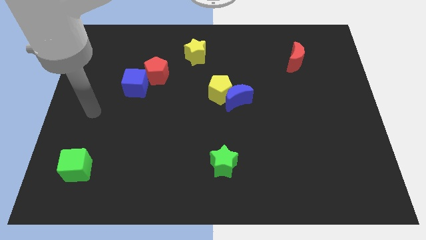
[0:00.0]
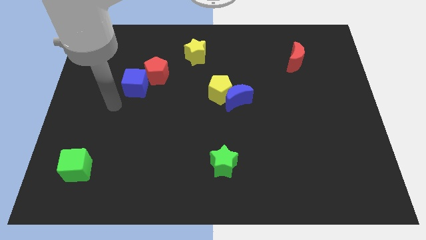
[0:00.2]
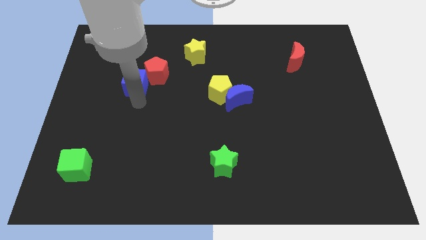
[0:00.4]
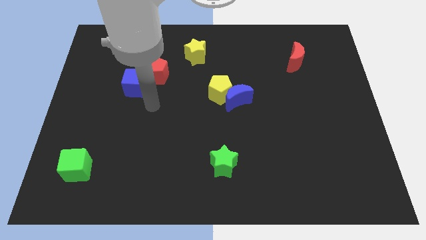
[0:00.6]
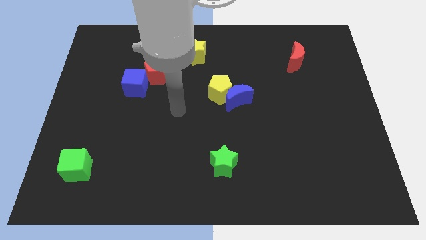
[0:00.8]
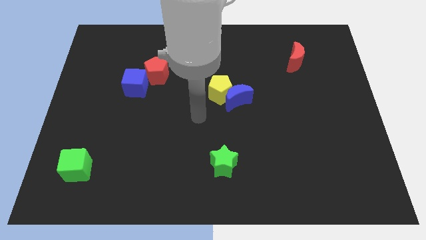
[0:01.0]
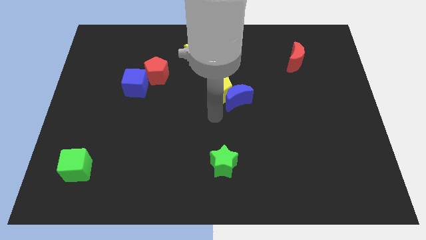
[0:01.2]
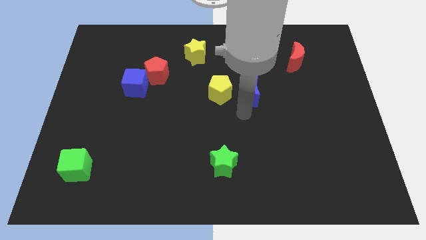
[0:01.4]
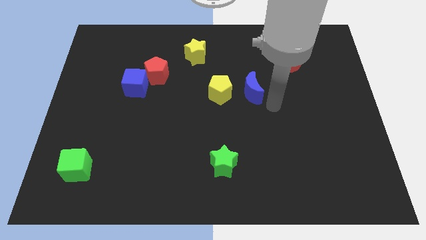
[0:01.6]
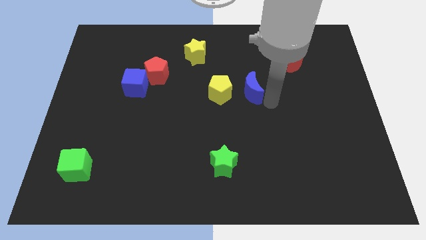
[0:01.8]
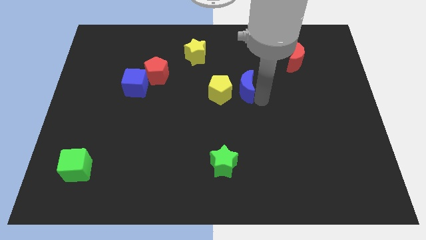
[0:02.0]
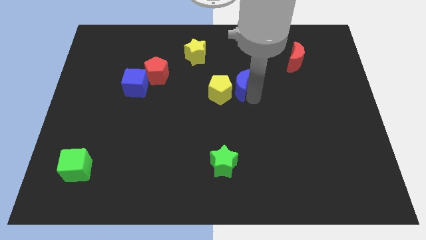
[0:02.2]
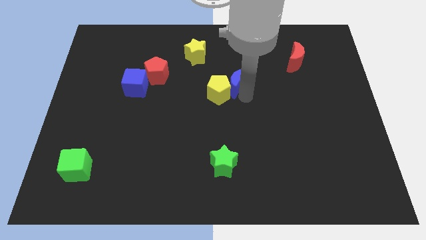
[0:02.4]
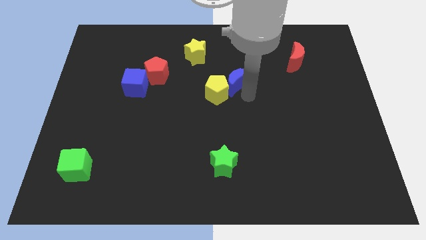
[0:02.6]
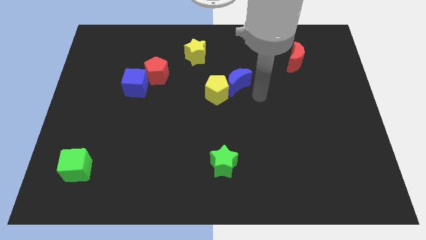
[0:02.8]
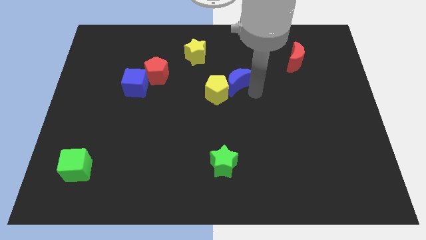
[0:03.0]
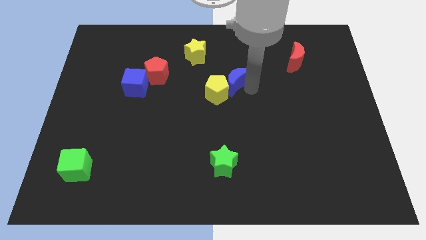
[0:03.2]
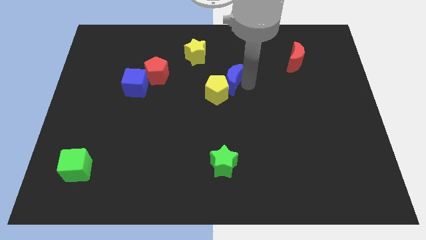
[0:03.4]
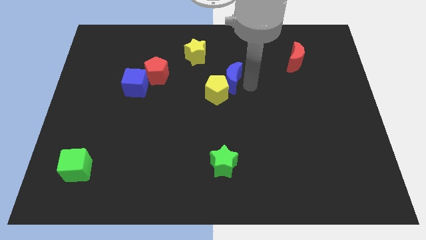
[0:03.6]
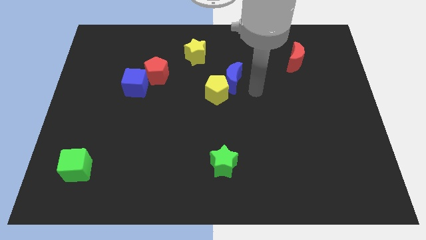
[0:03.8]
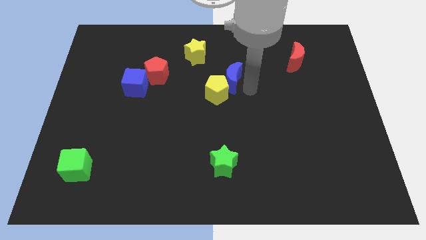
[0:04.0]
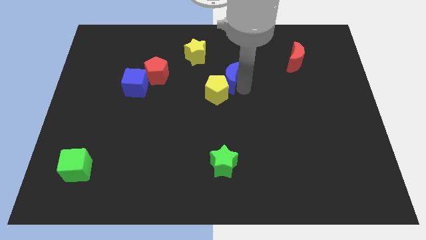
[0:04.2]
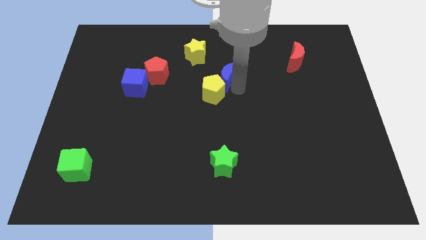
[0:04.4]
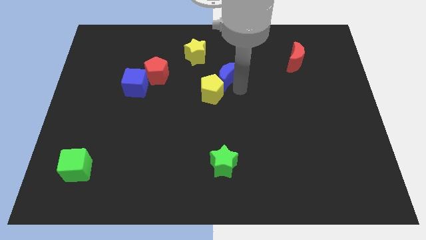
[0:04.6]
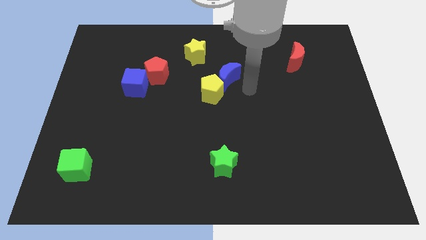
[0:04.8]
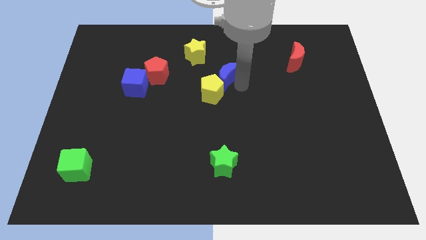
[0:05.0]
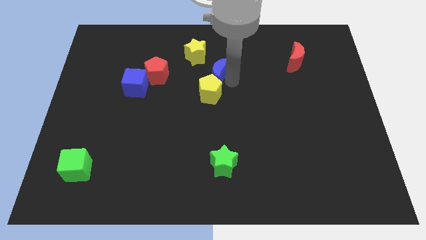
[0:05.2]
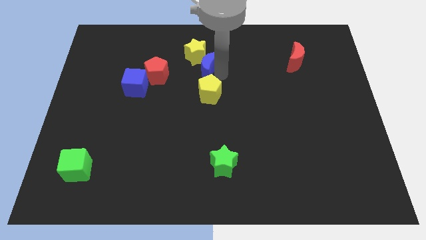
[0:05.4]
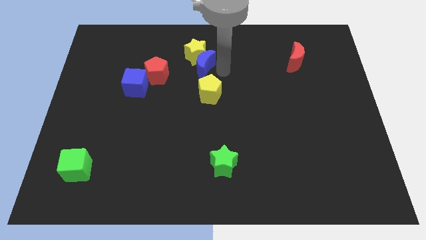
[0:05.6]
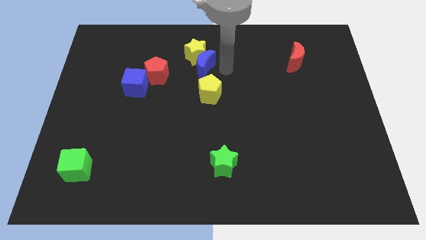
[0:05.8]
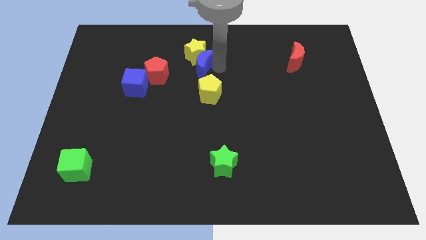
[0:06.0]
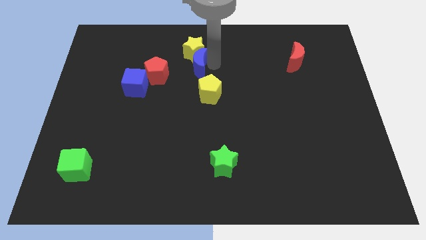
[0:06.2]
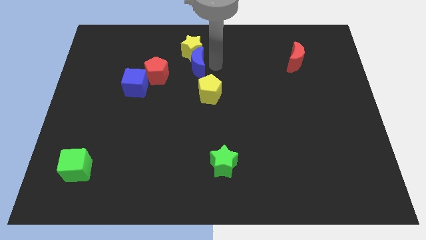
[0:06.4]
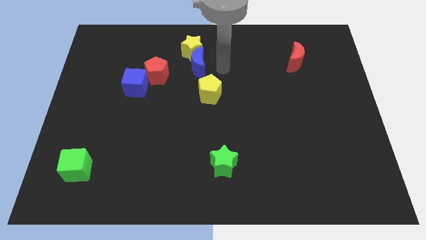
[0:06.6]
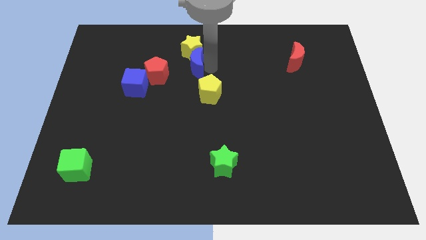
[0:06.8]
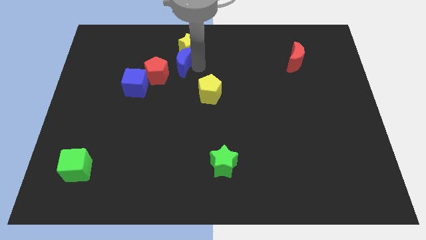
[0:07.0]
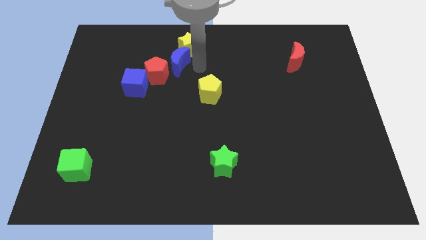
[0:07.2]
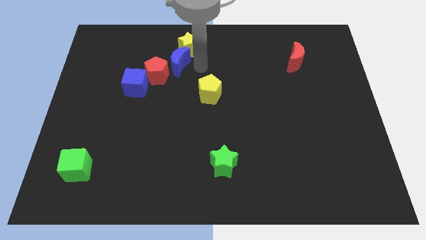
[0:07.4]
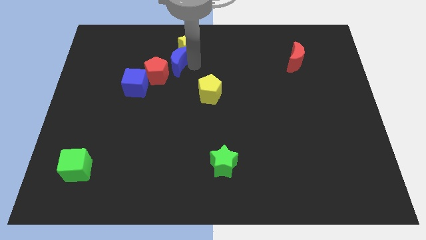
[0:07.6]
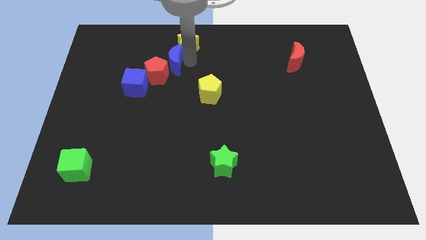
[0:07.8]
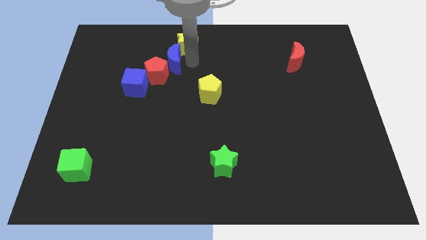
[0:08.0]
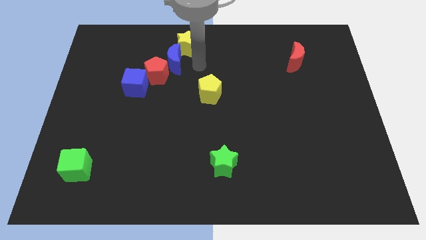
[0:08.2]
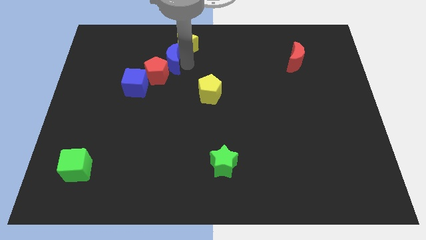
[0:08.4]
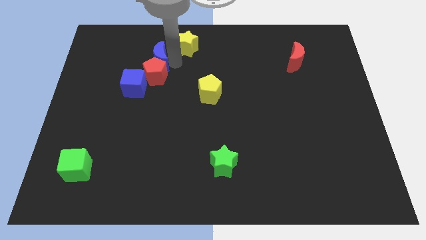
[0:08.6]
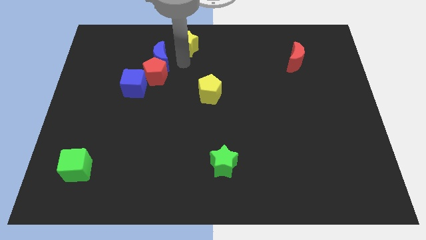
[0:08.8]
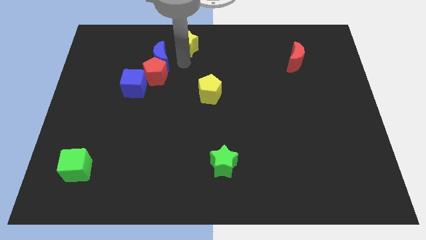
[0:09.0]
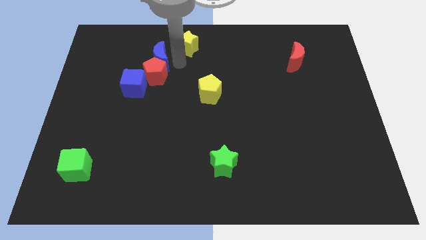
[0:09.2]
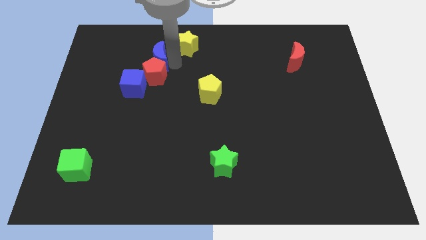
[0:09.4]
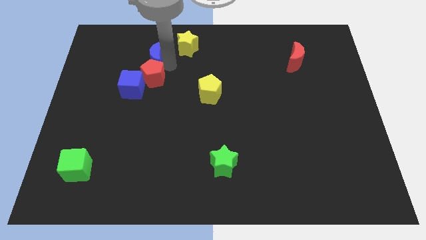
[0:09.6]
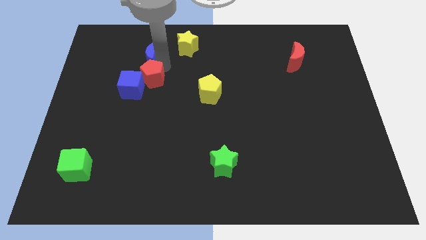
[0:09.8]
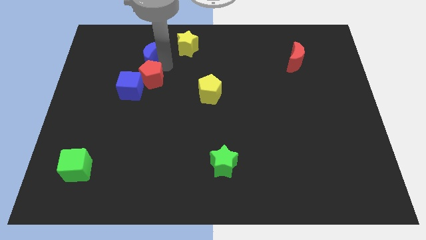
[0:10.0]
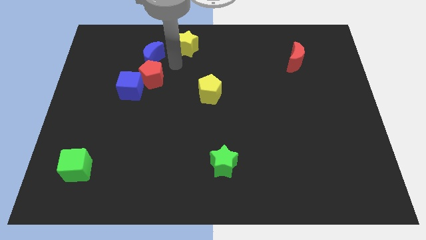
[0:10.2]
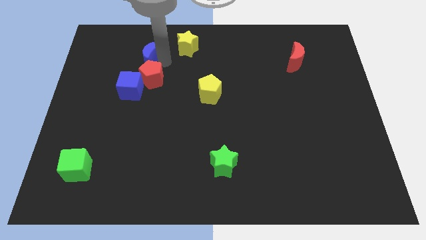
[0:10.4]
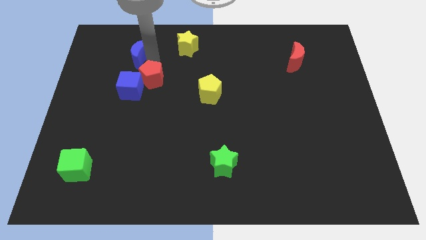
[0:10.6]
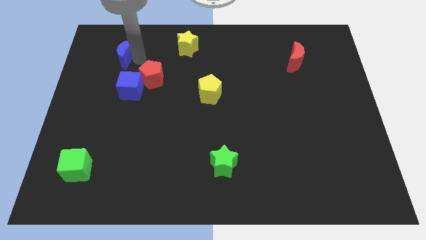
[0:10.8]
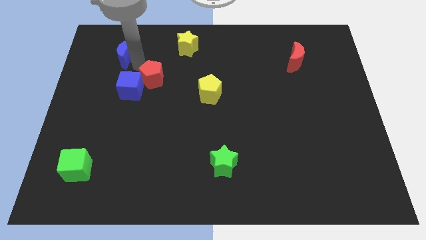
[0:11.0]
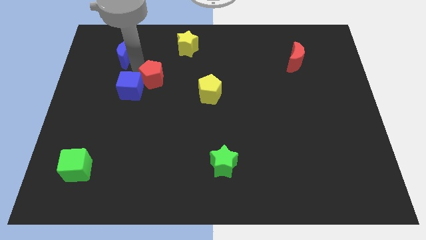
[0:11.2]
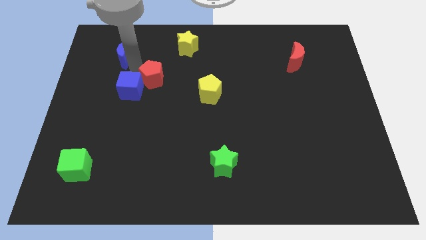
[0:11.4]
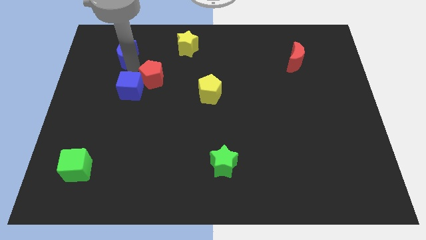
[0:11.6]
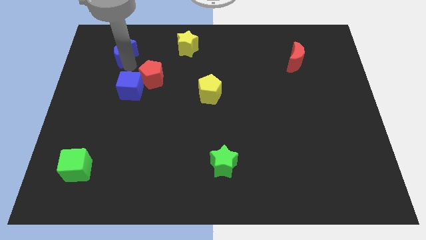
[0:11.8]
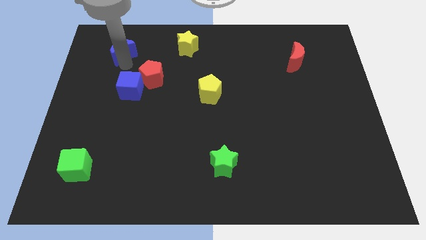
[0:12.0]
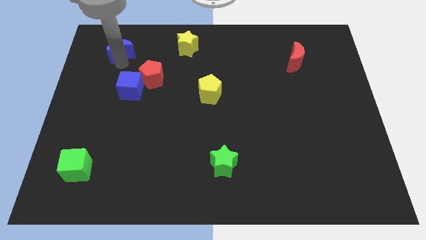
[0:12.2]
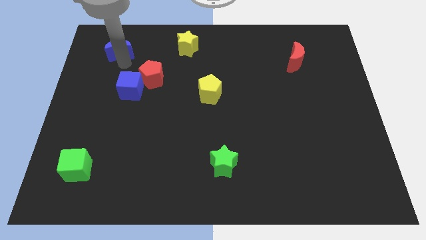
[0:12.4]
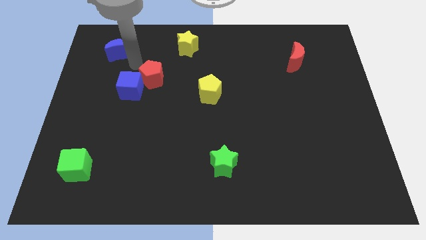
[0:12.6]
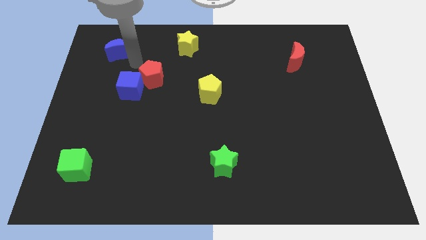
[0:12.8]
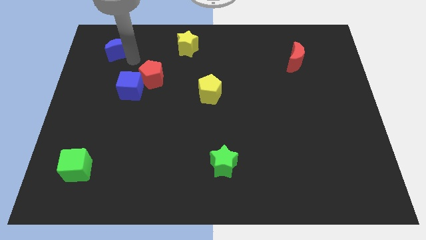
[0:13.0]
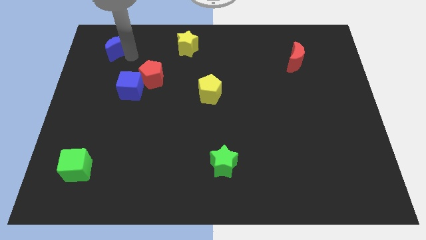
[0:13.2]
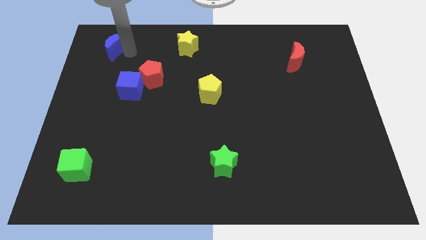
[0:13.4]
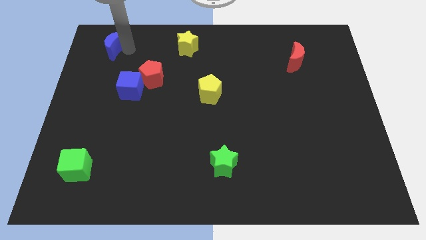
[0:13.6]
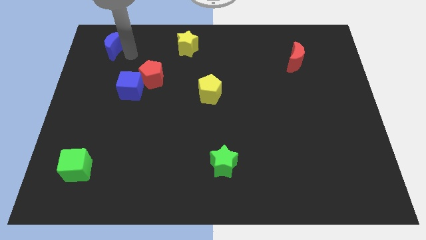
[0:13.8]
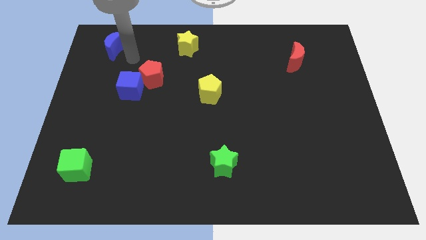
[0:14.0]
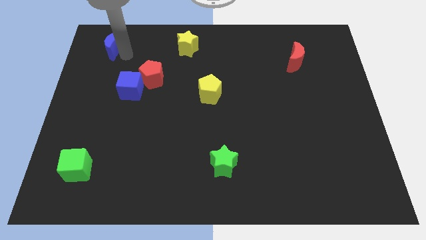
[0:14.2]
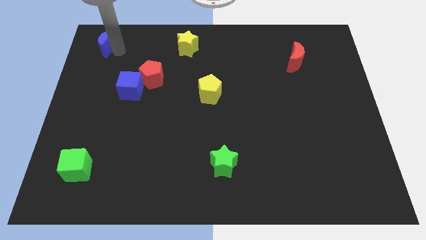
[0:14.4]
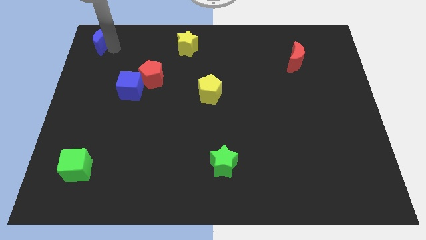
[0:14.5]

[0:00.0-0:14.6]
push the blue moon to the top left
